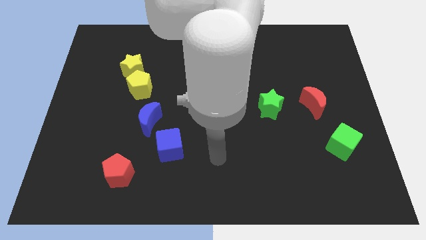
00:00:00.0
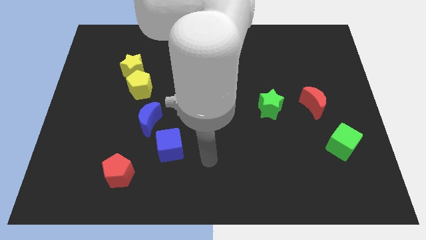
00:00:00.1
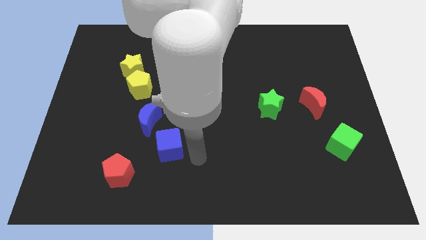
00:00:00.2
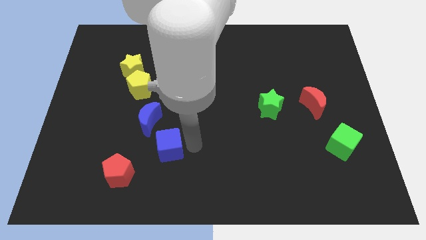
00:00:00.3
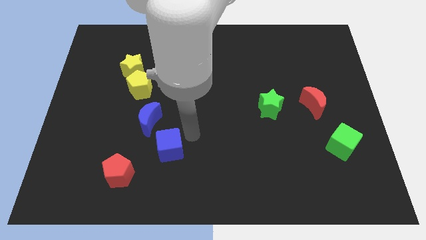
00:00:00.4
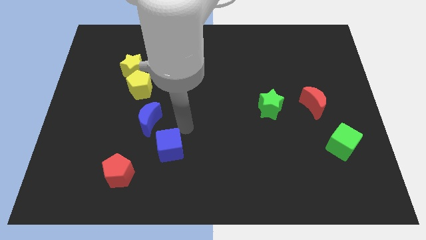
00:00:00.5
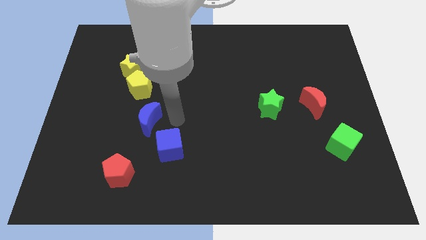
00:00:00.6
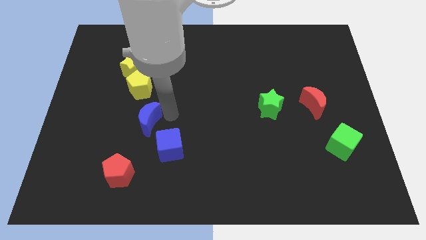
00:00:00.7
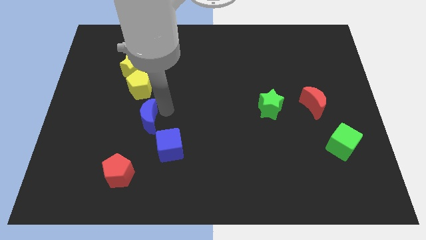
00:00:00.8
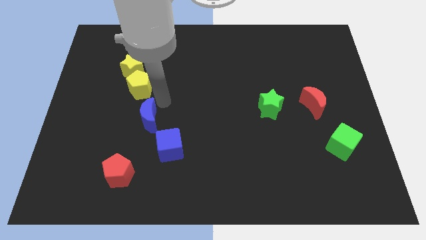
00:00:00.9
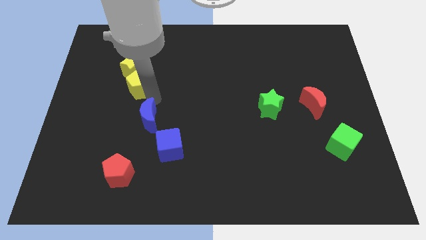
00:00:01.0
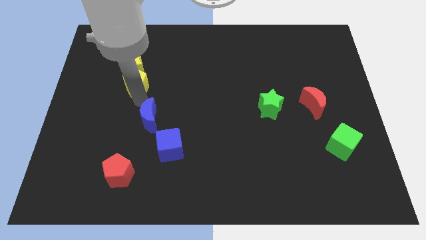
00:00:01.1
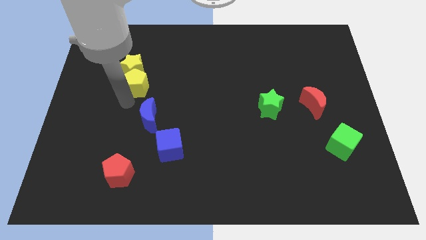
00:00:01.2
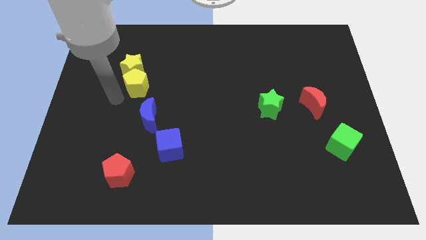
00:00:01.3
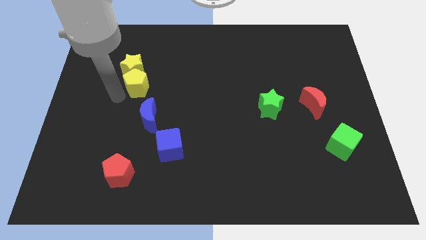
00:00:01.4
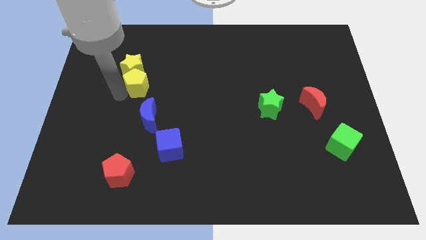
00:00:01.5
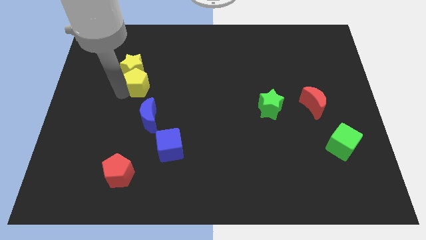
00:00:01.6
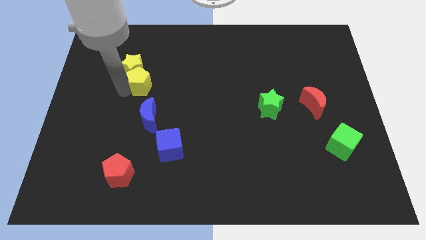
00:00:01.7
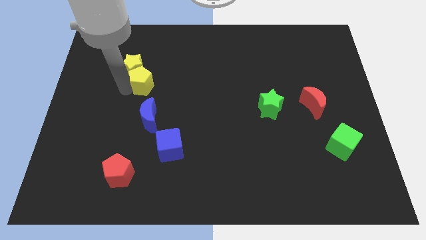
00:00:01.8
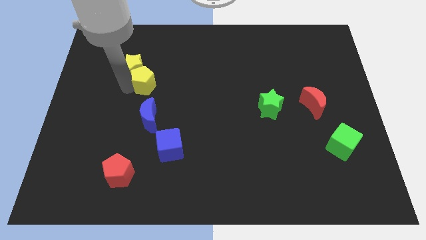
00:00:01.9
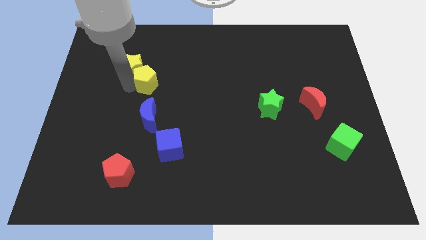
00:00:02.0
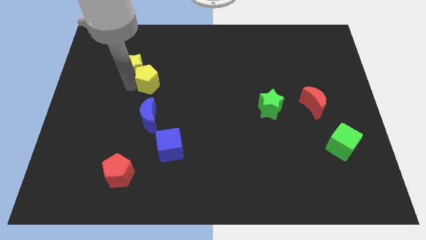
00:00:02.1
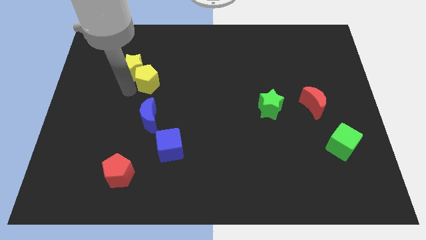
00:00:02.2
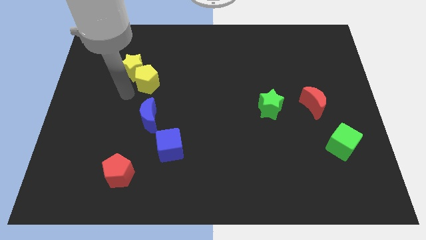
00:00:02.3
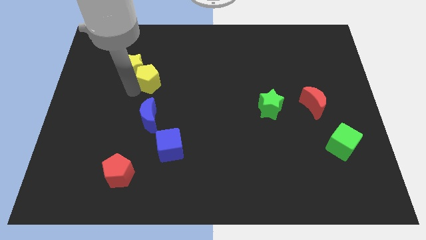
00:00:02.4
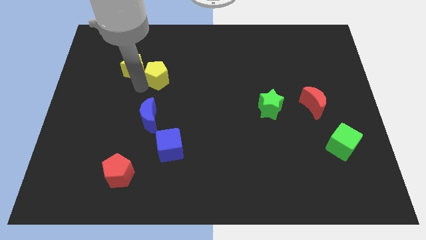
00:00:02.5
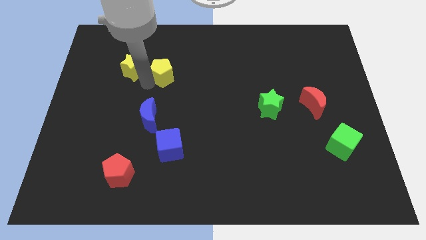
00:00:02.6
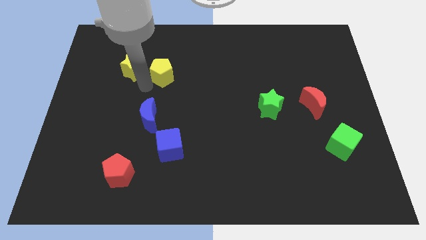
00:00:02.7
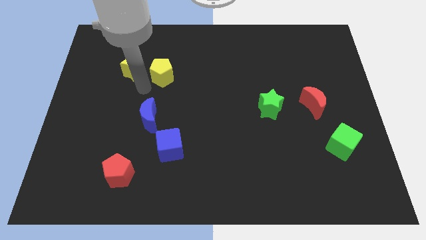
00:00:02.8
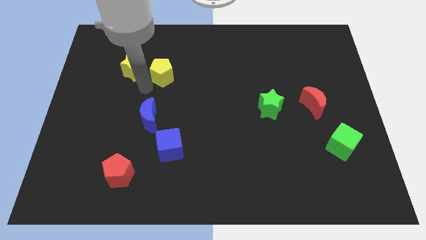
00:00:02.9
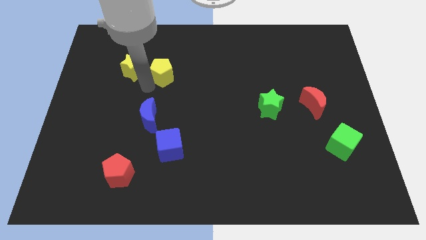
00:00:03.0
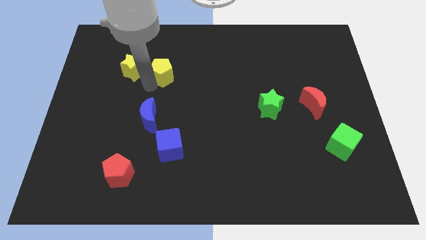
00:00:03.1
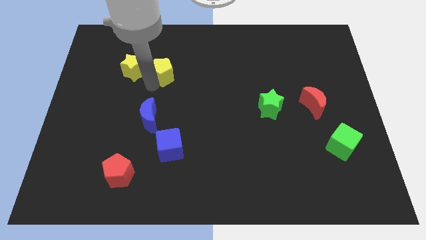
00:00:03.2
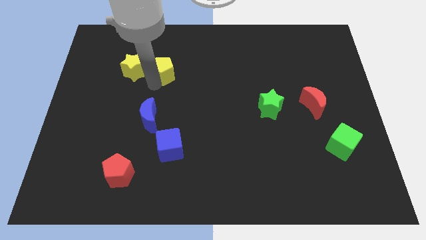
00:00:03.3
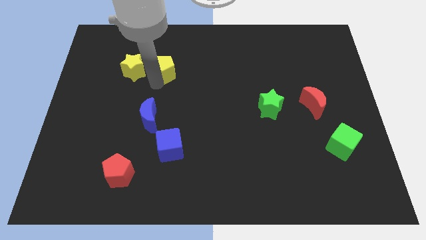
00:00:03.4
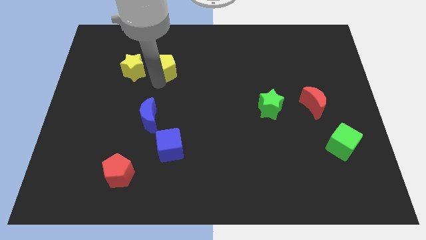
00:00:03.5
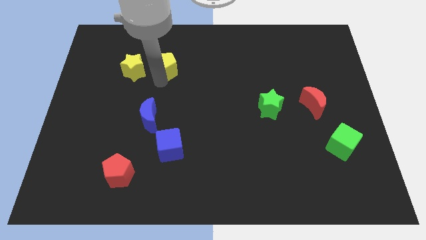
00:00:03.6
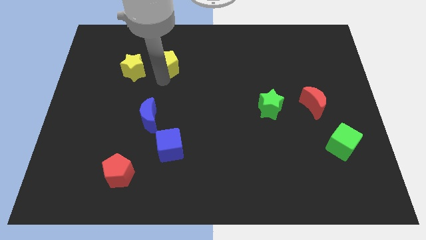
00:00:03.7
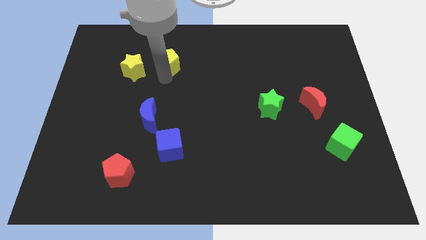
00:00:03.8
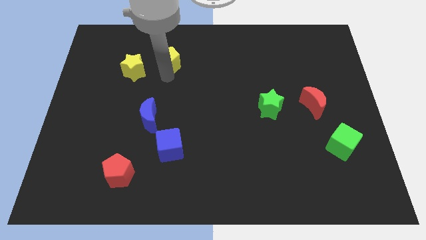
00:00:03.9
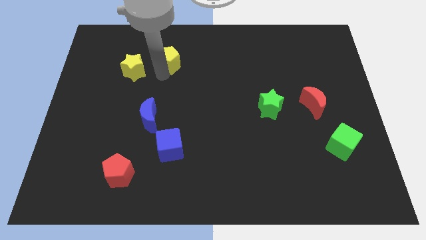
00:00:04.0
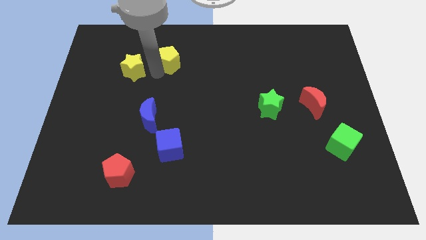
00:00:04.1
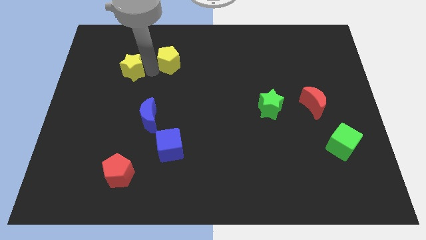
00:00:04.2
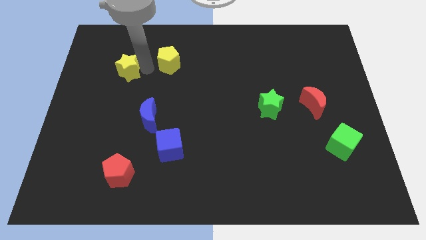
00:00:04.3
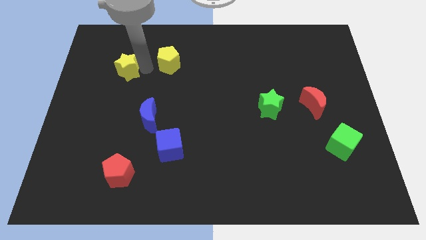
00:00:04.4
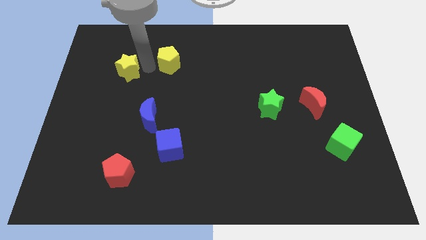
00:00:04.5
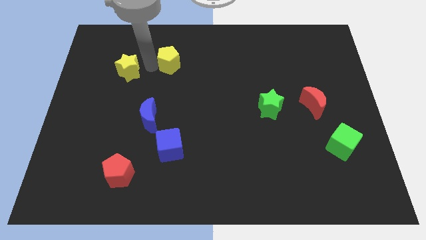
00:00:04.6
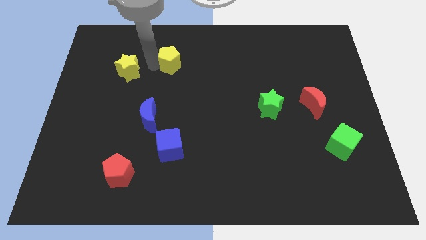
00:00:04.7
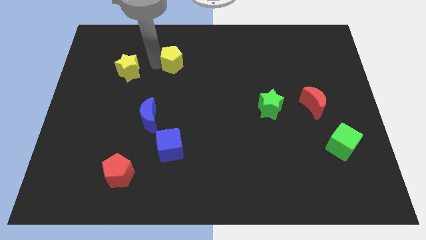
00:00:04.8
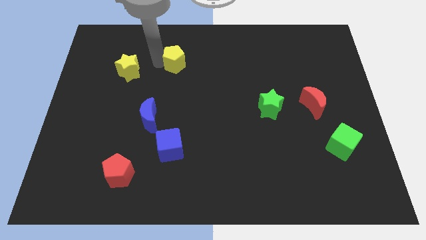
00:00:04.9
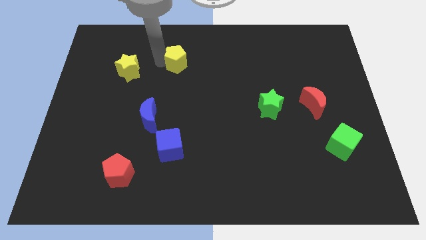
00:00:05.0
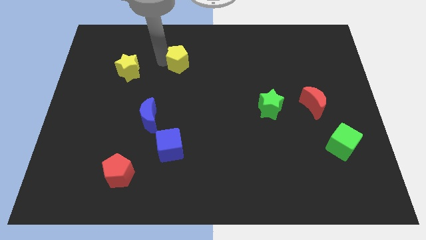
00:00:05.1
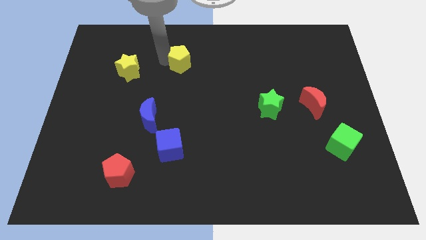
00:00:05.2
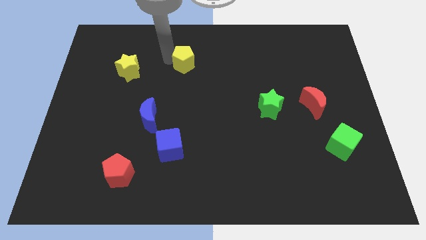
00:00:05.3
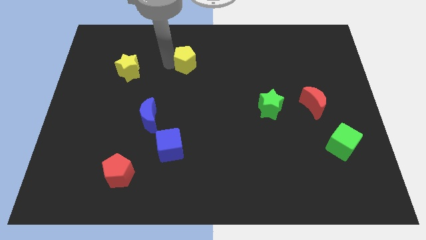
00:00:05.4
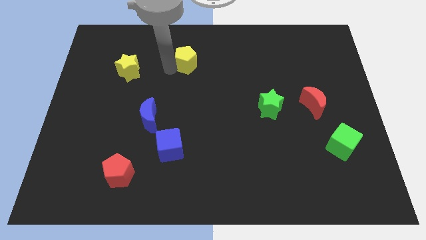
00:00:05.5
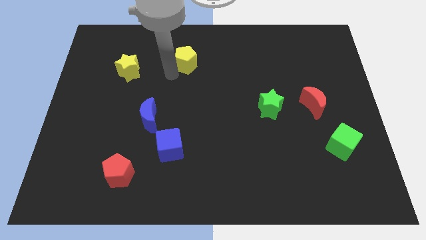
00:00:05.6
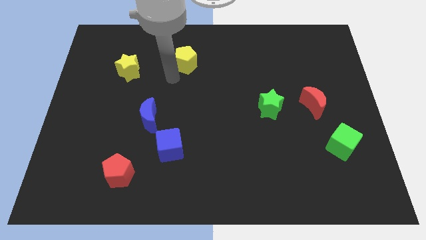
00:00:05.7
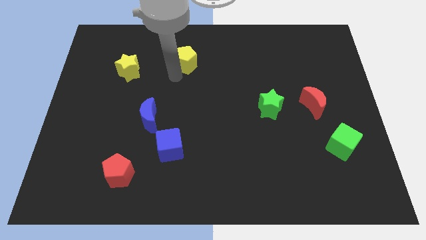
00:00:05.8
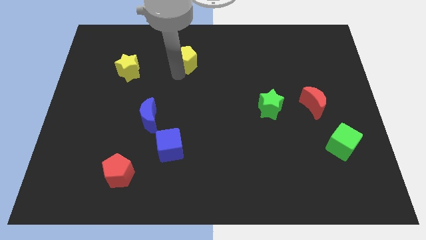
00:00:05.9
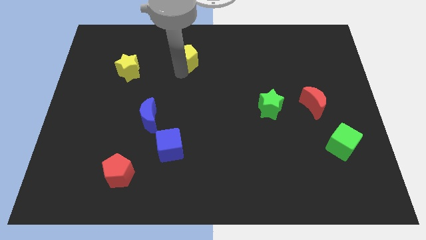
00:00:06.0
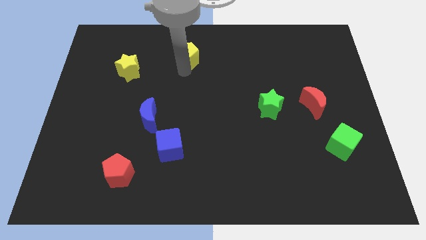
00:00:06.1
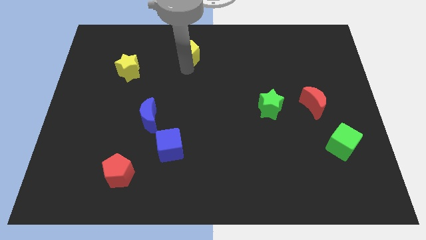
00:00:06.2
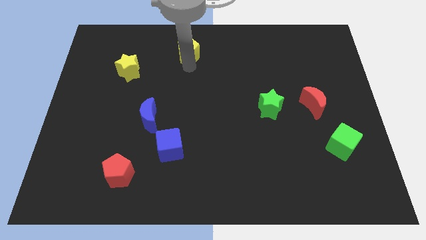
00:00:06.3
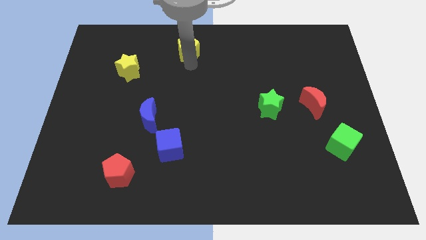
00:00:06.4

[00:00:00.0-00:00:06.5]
slide the yellow pentagon to the top
